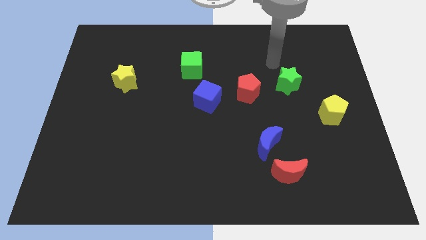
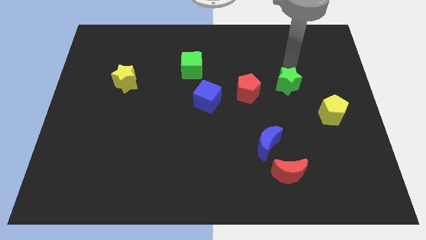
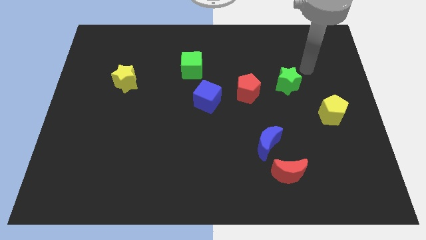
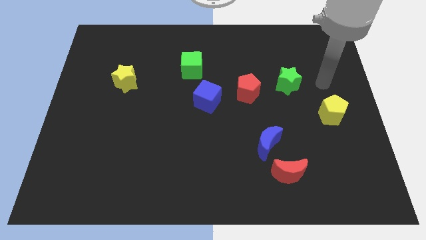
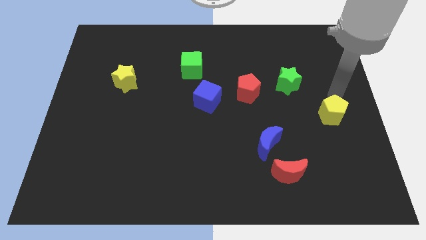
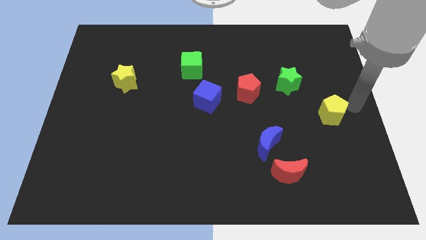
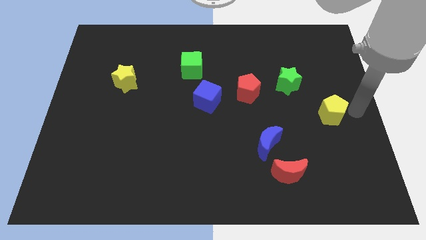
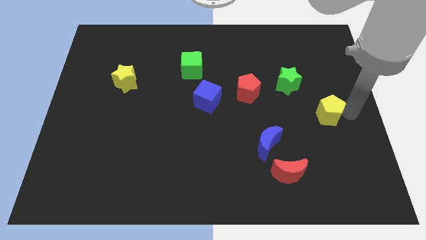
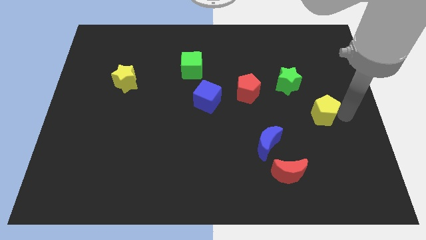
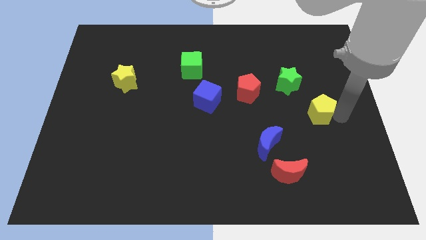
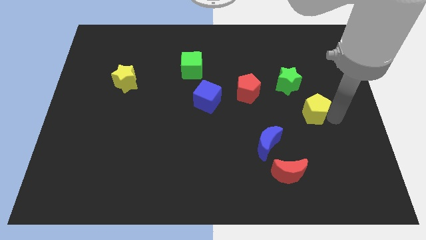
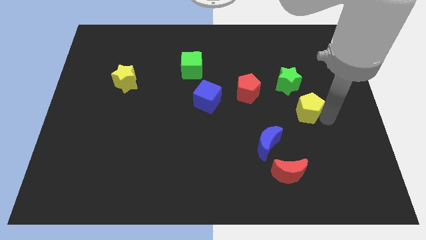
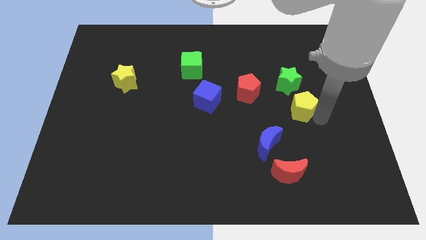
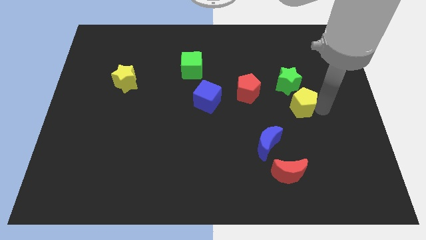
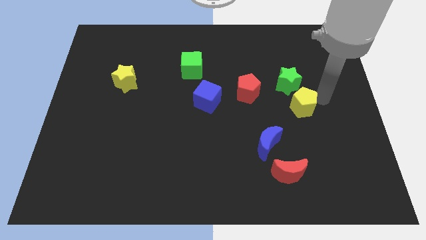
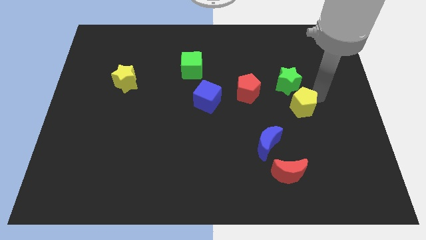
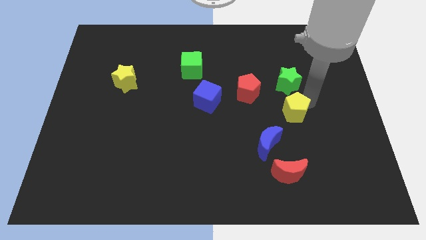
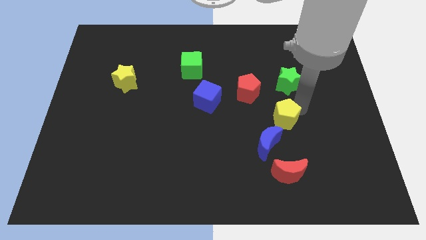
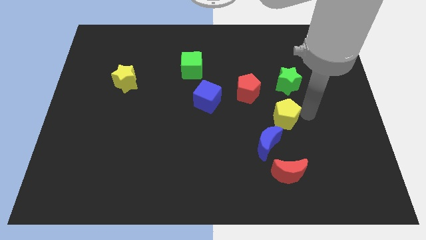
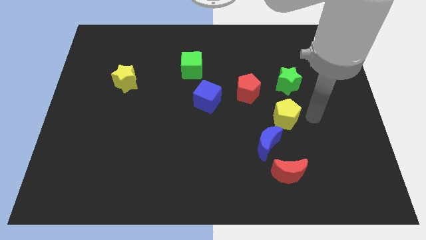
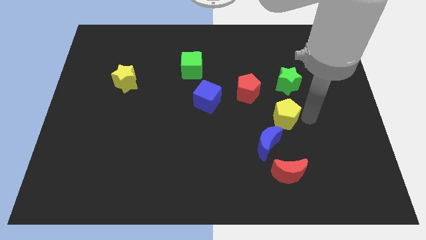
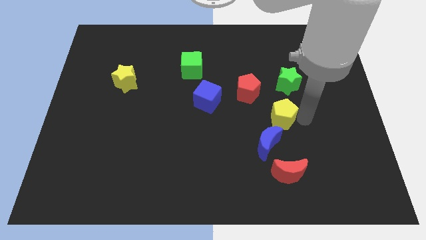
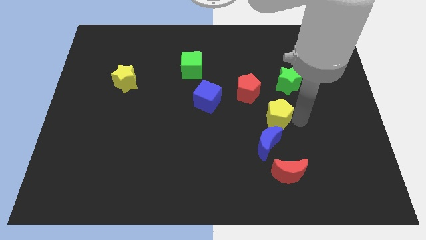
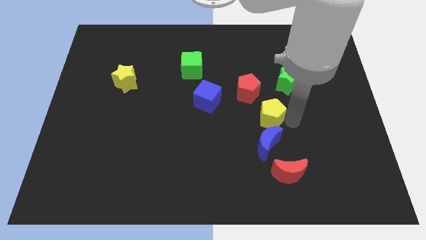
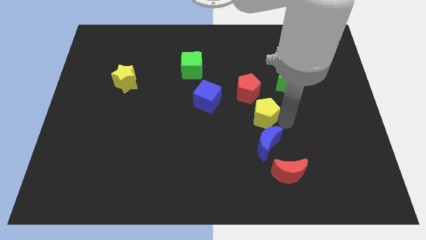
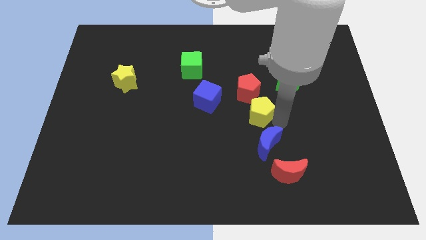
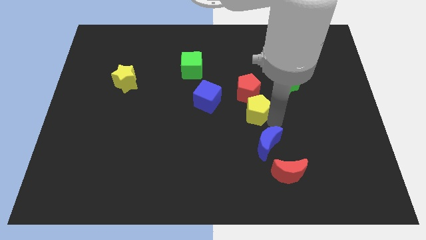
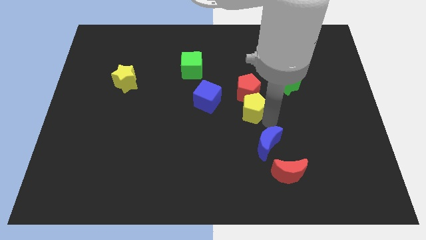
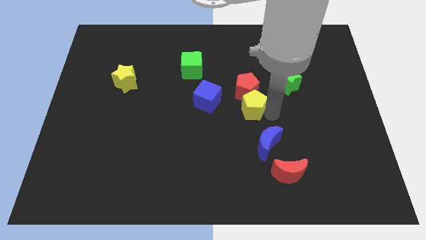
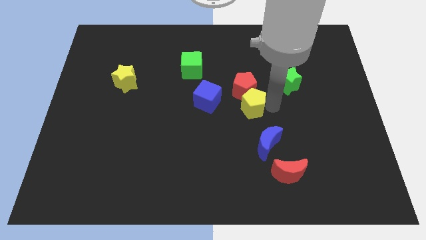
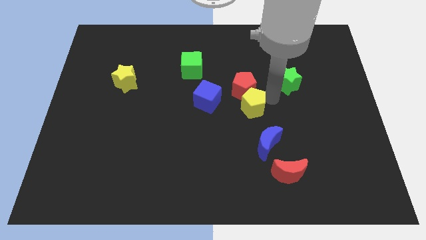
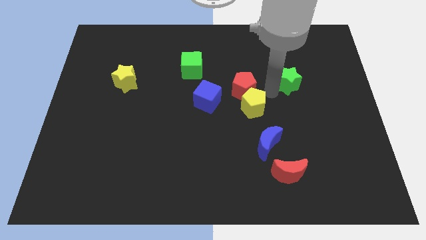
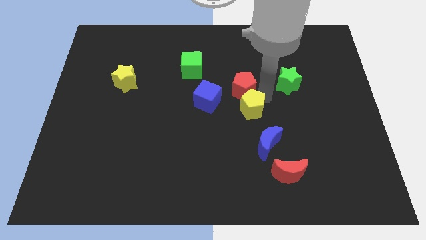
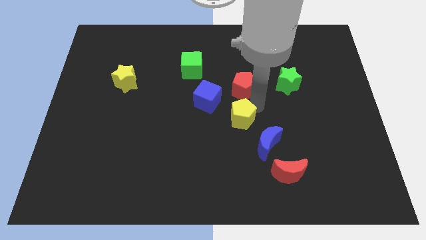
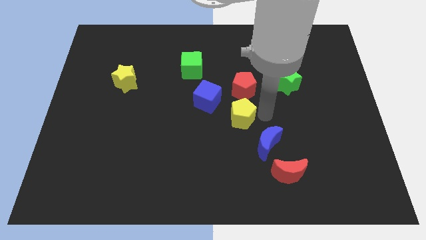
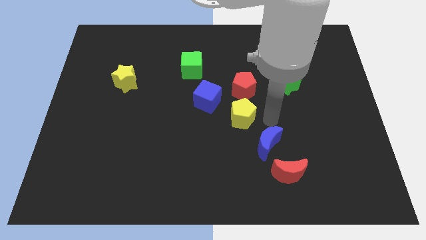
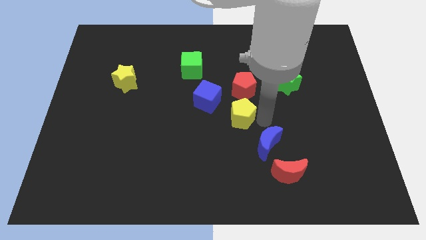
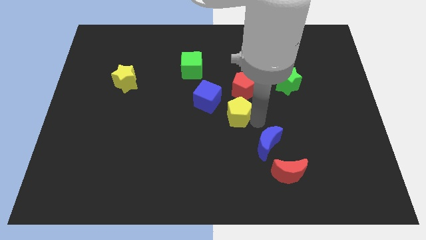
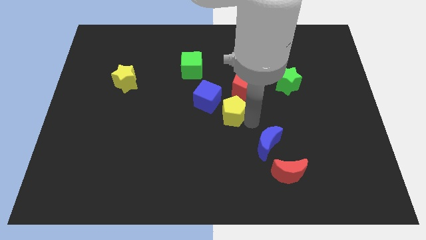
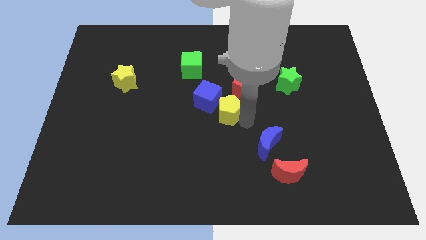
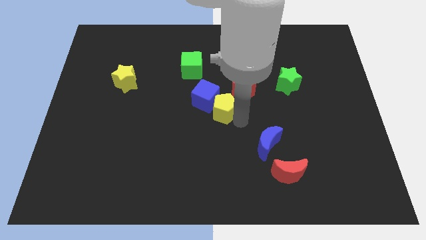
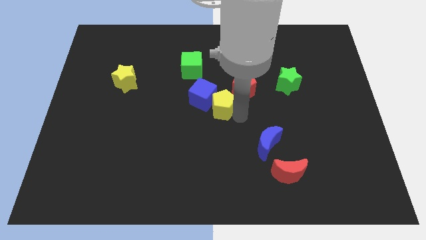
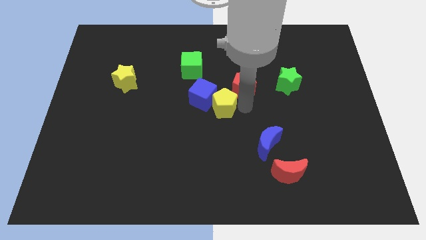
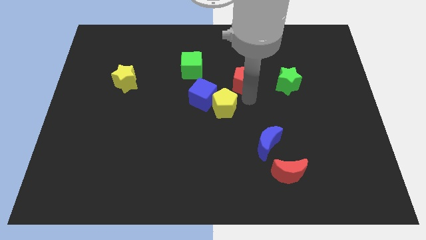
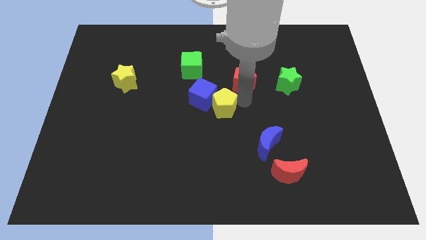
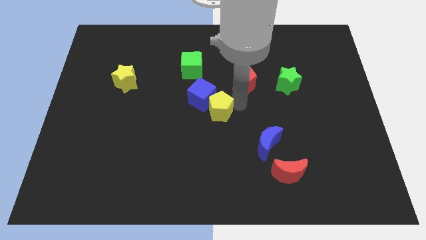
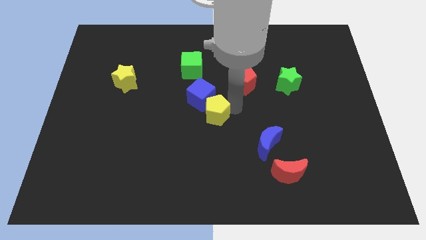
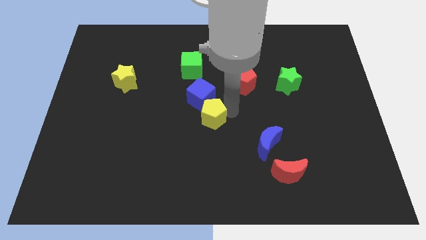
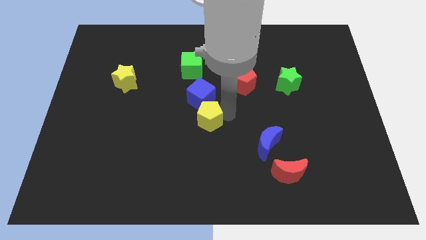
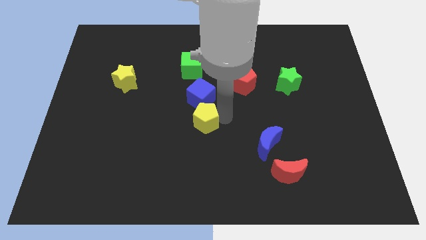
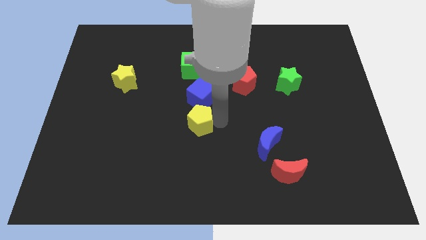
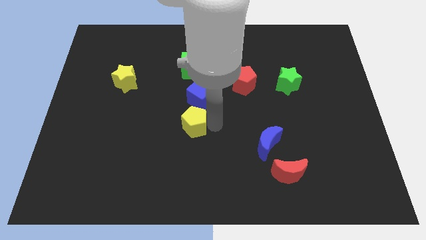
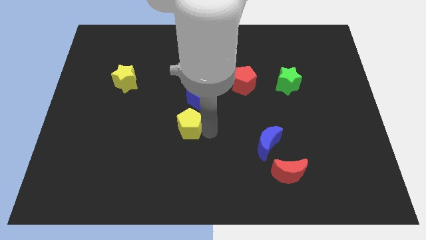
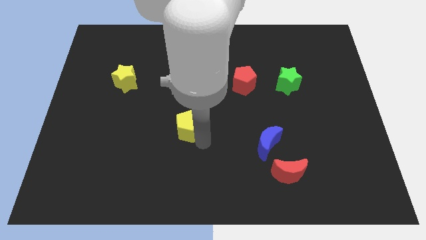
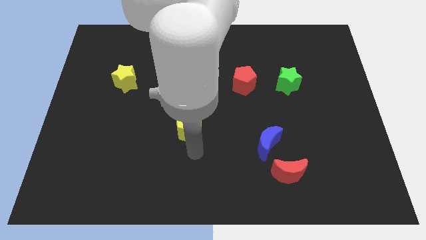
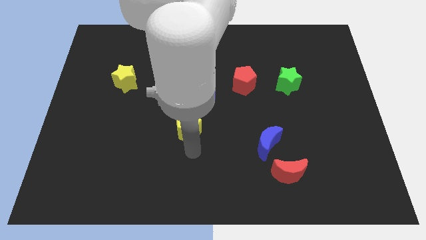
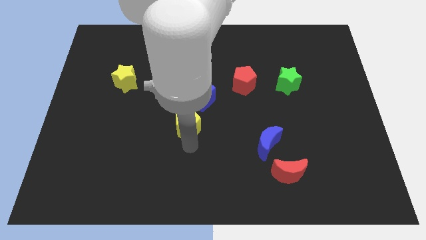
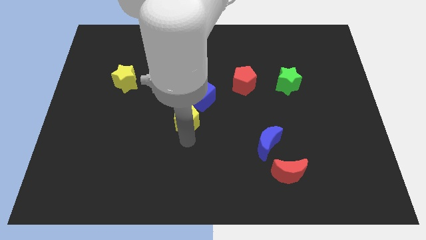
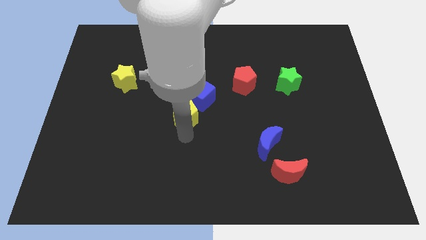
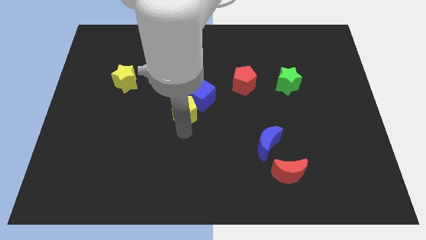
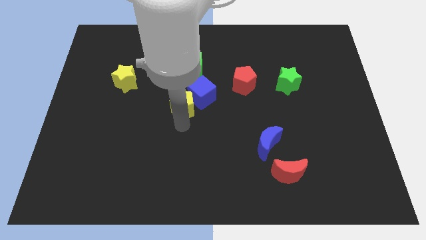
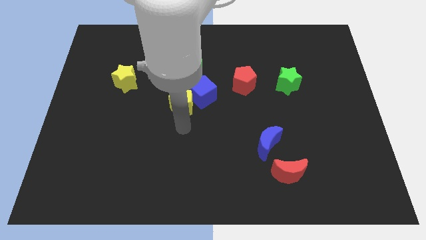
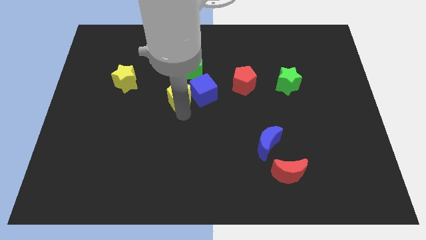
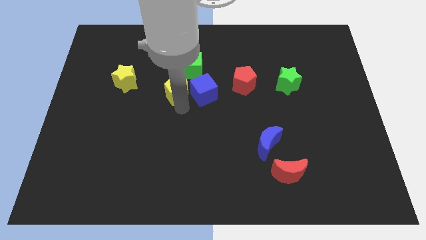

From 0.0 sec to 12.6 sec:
put the yellow pentagon diagonally up and to the left of the blue cube

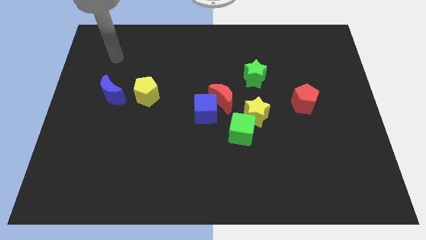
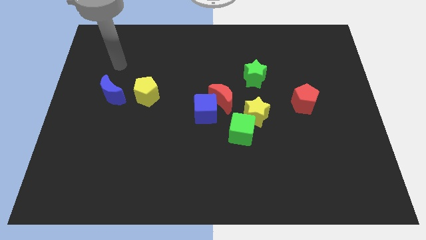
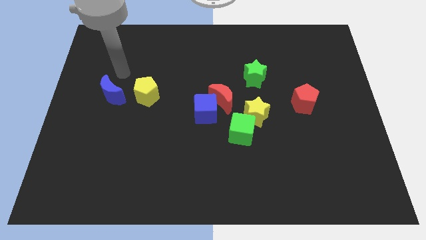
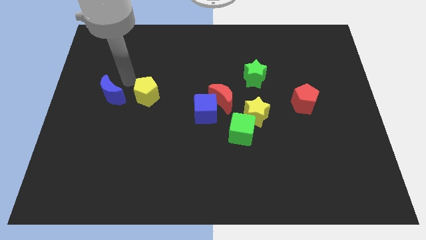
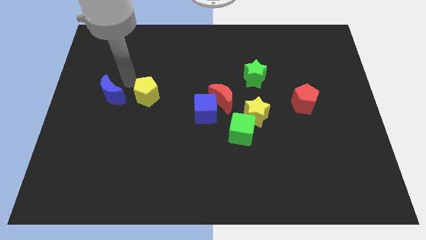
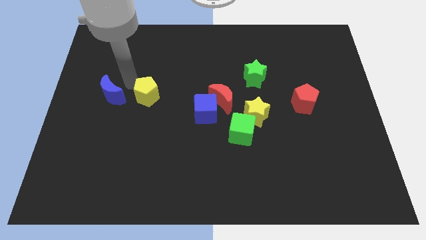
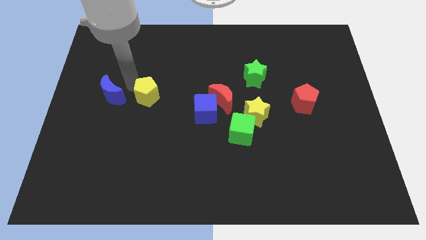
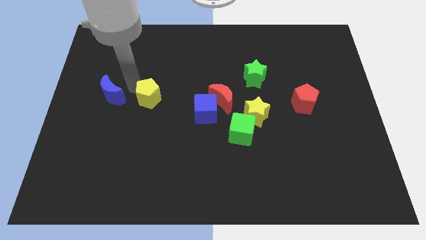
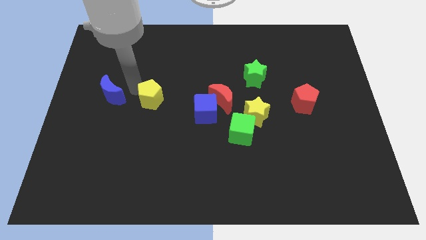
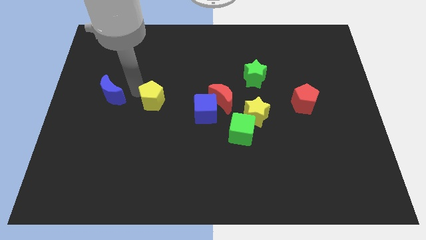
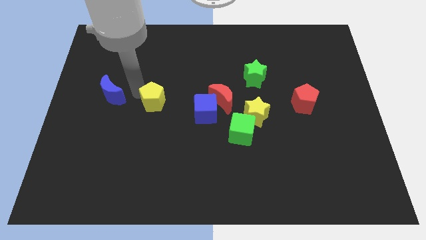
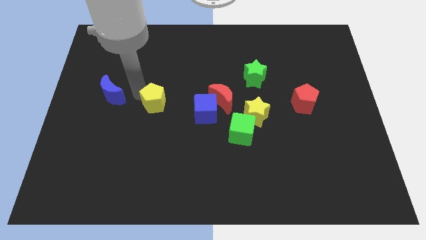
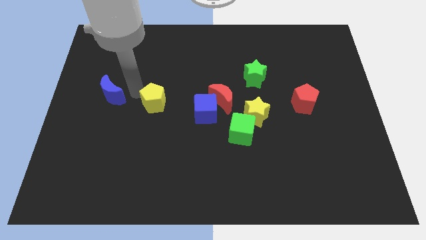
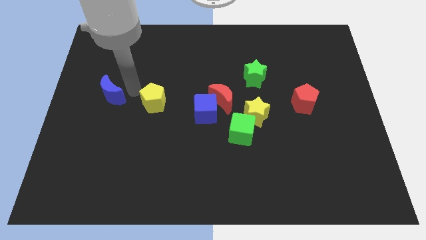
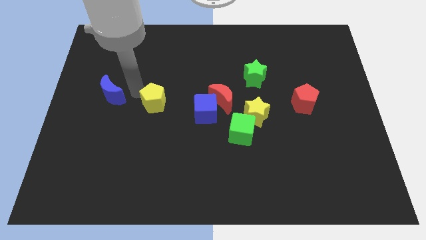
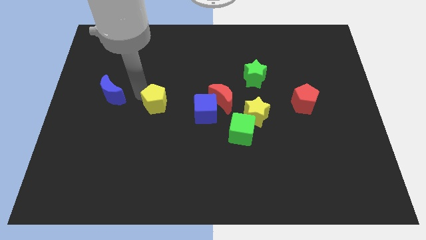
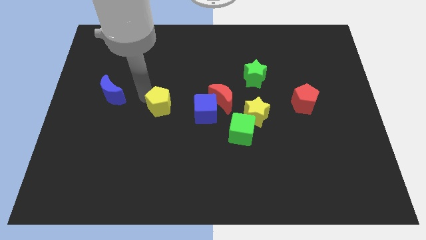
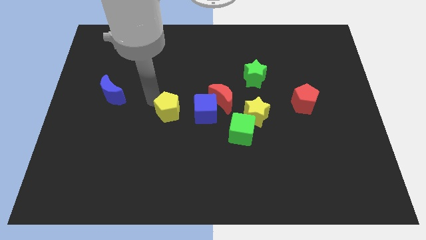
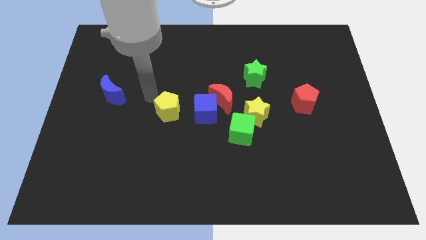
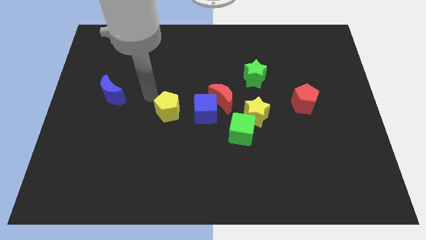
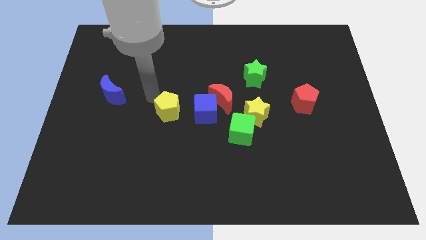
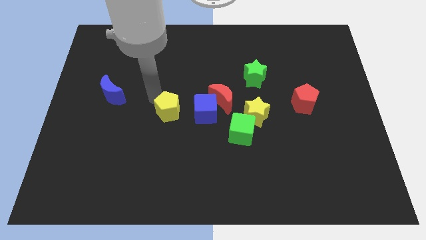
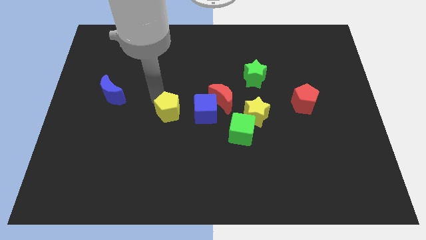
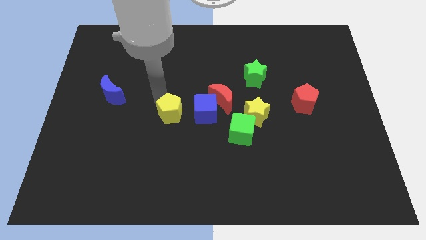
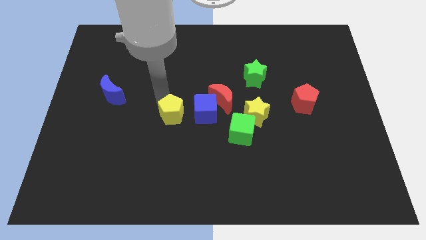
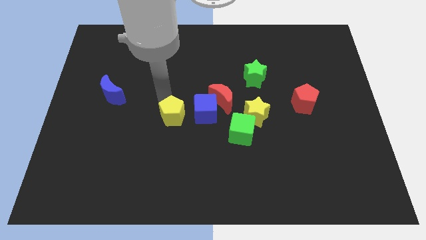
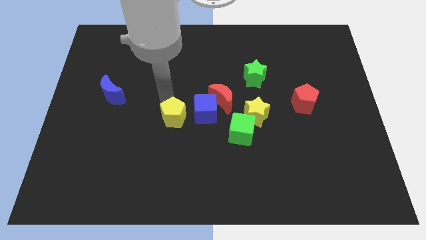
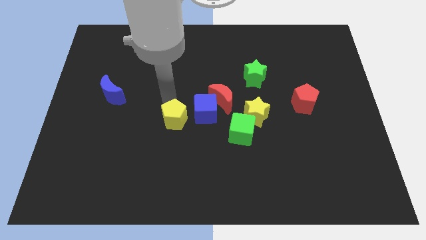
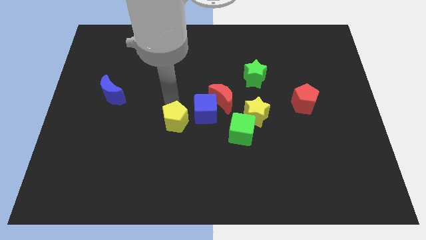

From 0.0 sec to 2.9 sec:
move the yellow pentagon to the left side of the green cube
